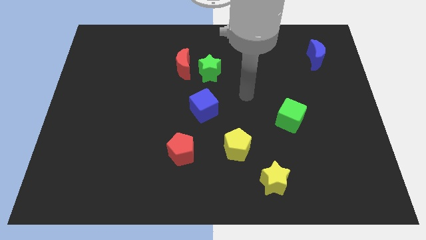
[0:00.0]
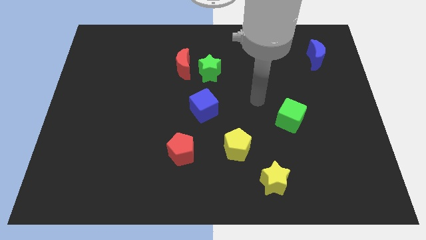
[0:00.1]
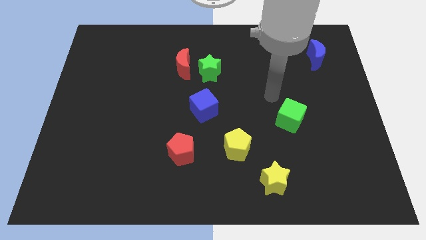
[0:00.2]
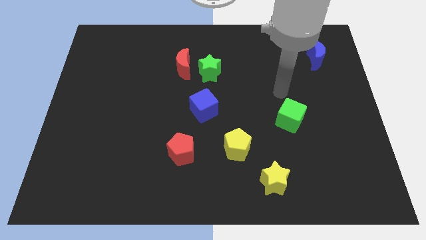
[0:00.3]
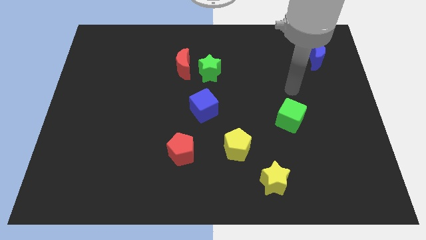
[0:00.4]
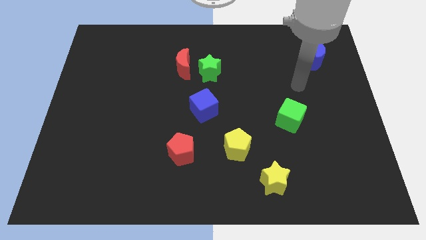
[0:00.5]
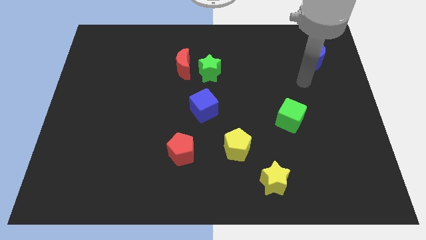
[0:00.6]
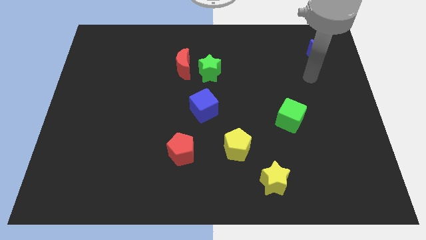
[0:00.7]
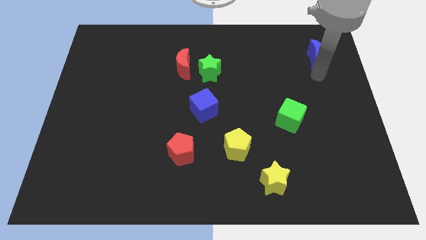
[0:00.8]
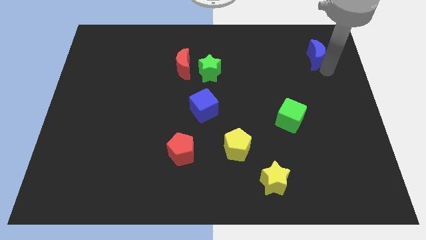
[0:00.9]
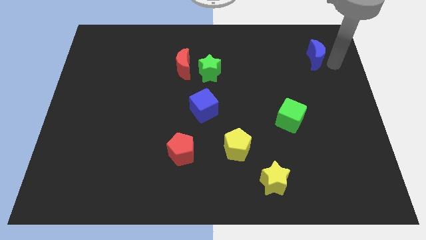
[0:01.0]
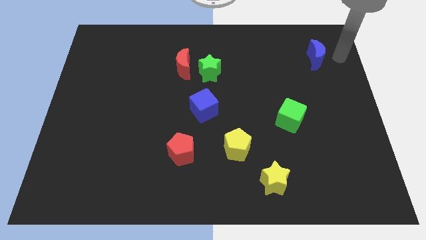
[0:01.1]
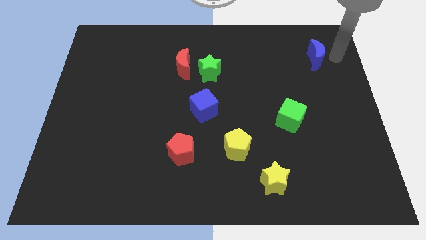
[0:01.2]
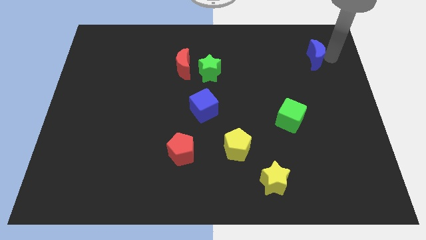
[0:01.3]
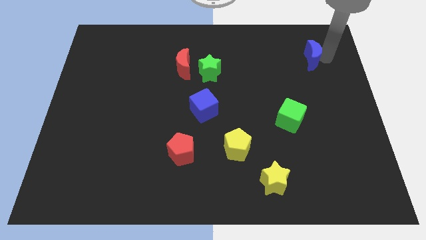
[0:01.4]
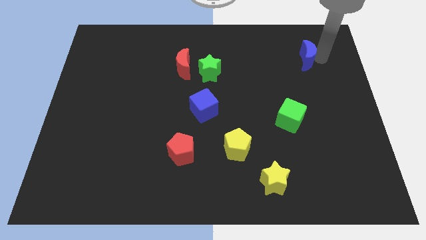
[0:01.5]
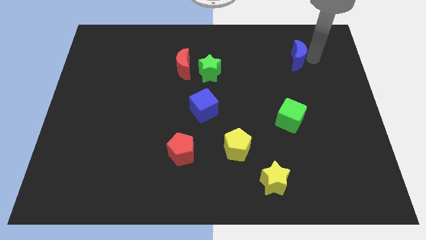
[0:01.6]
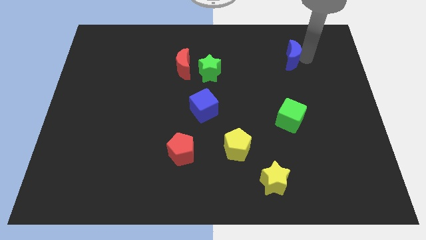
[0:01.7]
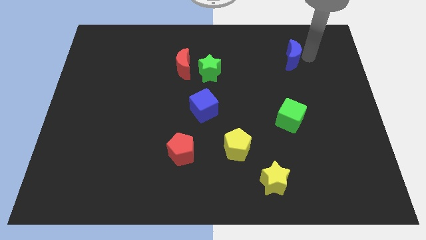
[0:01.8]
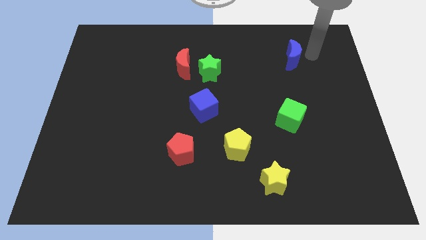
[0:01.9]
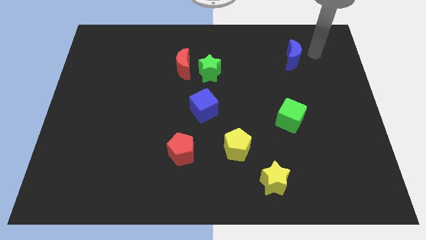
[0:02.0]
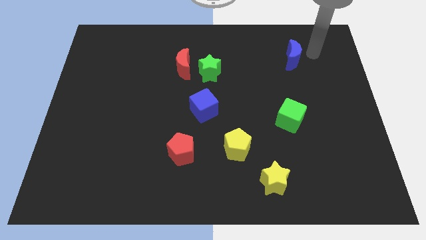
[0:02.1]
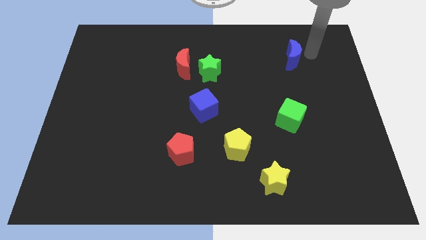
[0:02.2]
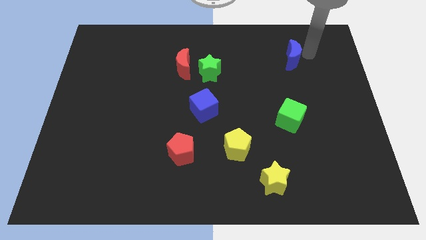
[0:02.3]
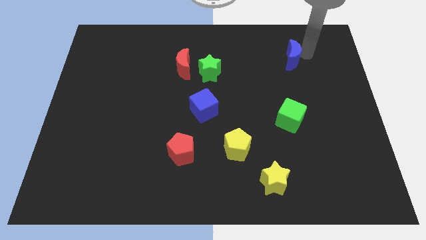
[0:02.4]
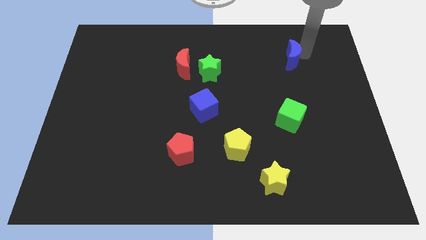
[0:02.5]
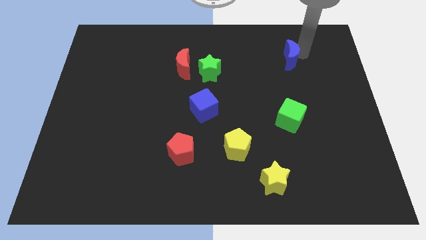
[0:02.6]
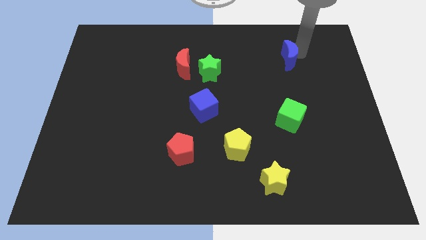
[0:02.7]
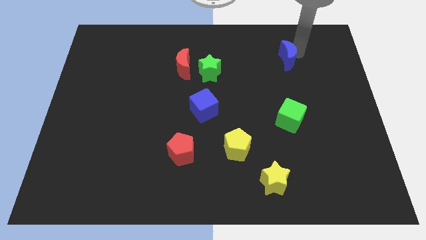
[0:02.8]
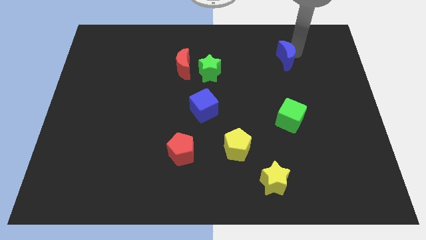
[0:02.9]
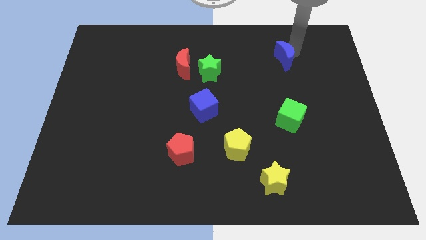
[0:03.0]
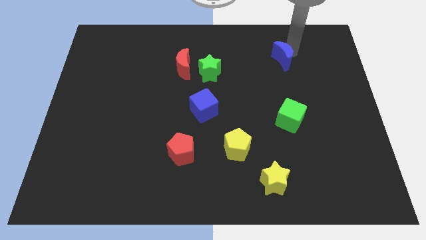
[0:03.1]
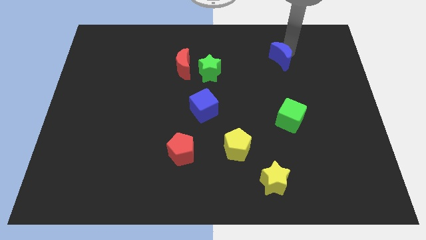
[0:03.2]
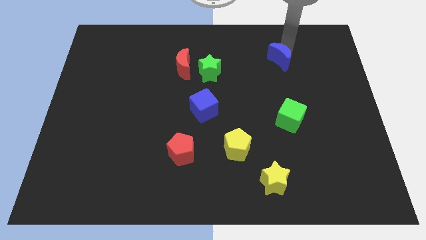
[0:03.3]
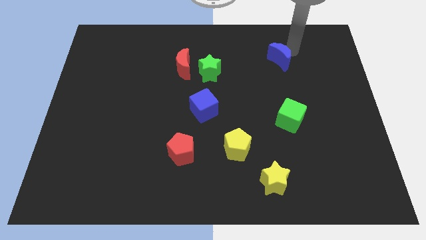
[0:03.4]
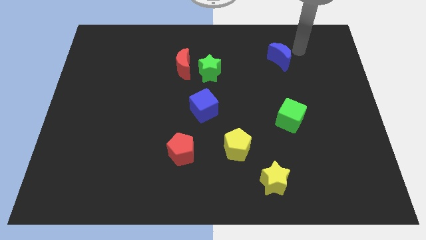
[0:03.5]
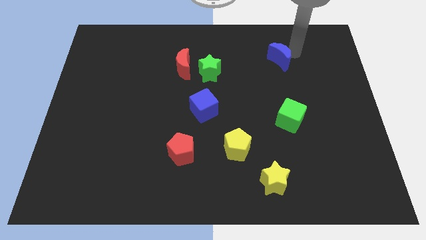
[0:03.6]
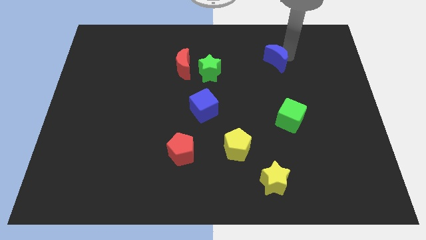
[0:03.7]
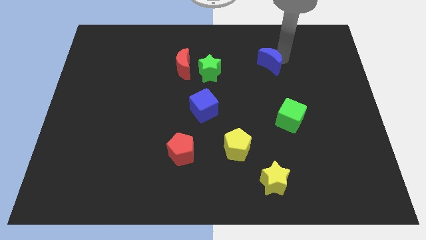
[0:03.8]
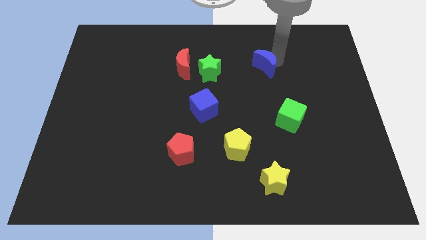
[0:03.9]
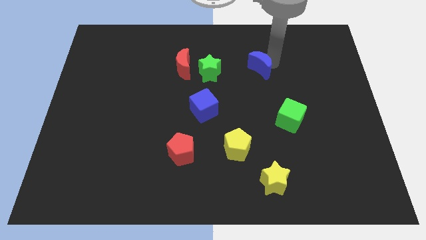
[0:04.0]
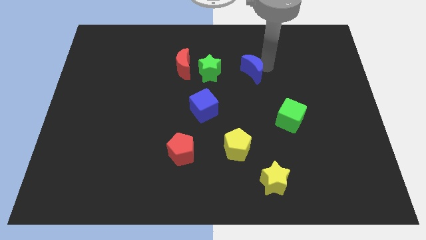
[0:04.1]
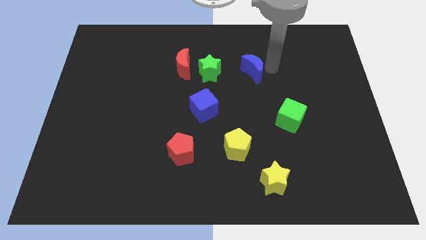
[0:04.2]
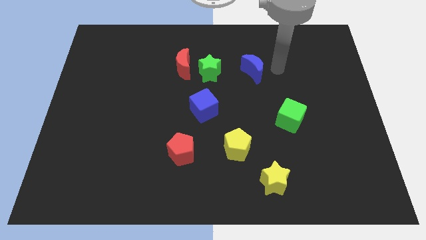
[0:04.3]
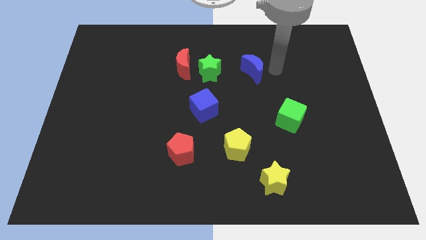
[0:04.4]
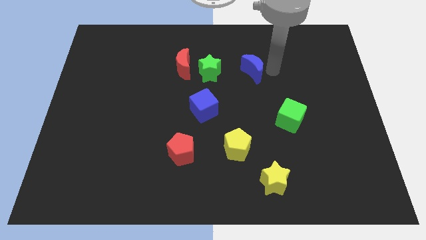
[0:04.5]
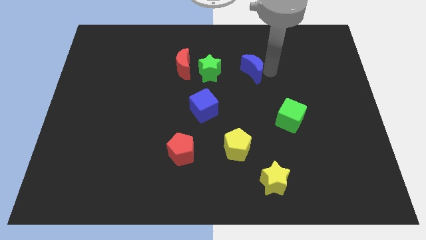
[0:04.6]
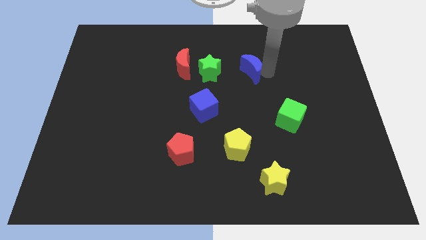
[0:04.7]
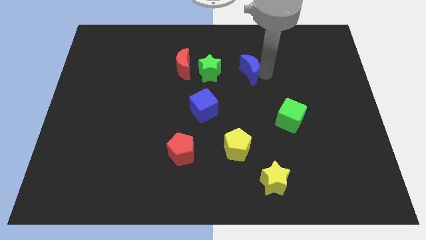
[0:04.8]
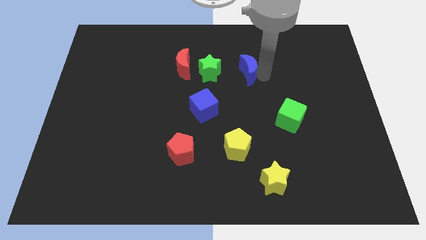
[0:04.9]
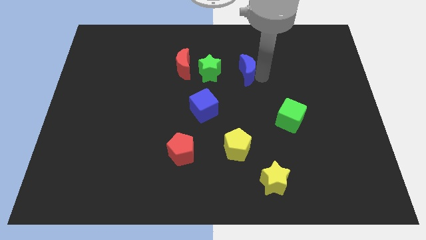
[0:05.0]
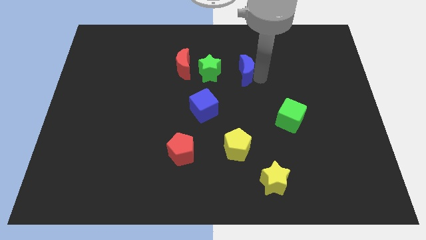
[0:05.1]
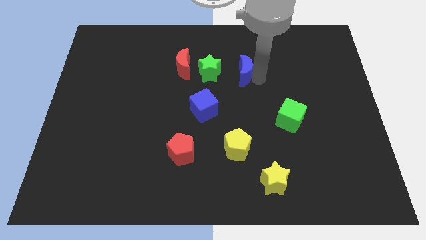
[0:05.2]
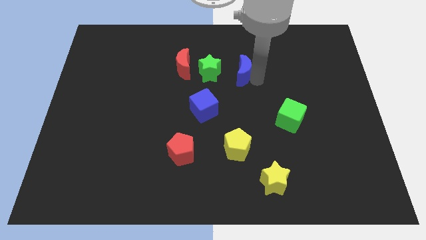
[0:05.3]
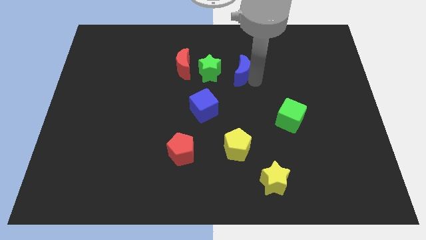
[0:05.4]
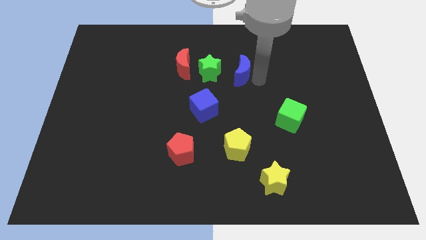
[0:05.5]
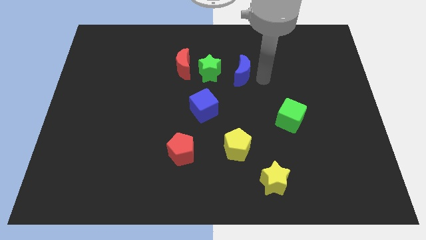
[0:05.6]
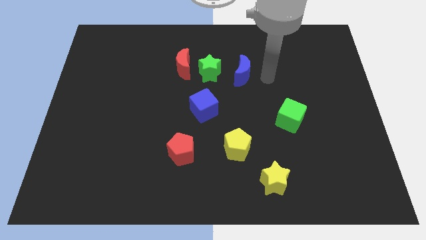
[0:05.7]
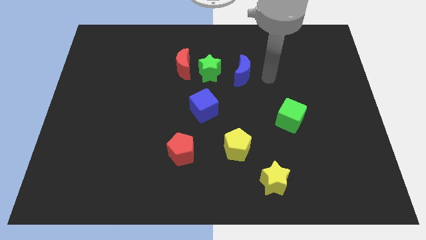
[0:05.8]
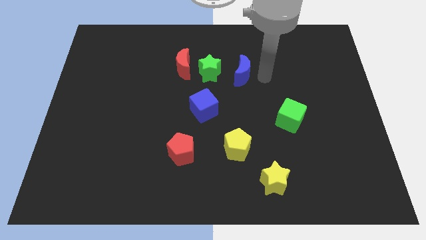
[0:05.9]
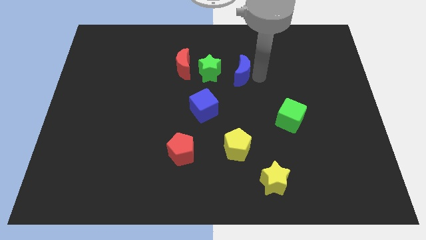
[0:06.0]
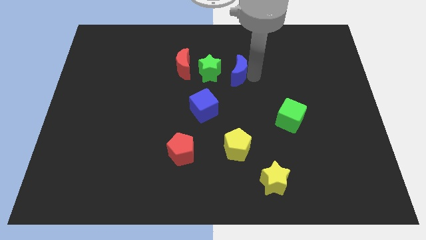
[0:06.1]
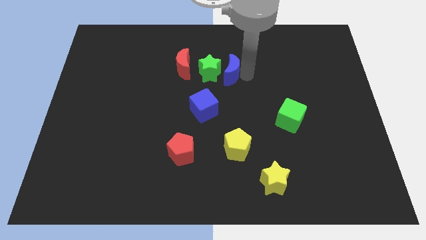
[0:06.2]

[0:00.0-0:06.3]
slide the blue moon towards the green star
